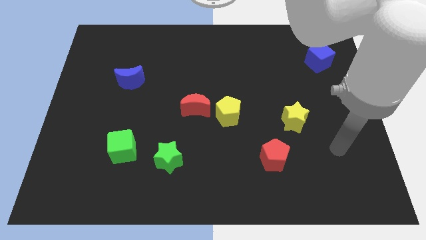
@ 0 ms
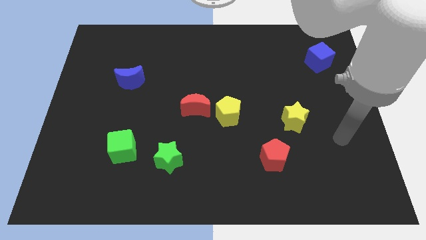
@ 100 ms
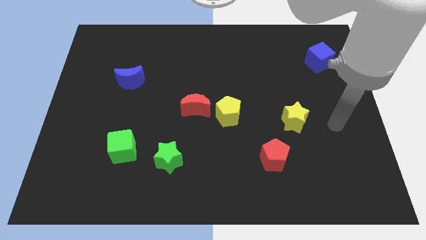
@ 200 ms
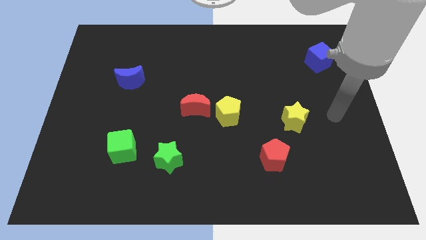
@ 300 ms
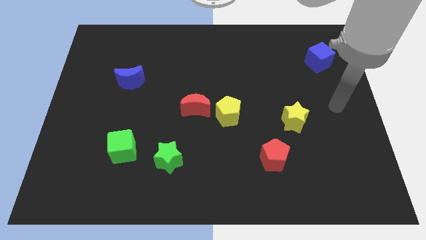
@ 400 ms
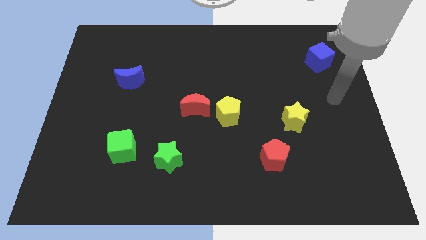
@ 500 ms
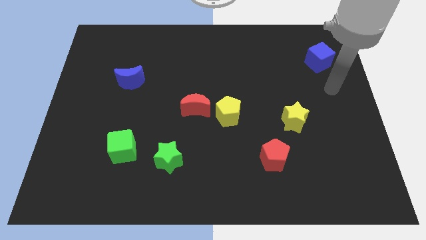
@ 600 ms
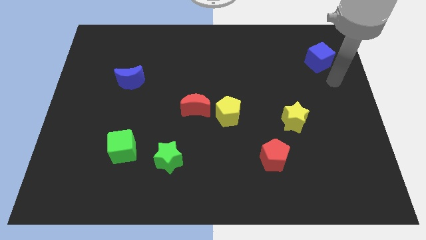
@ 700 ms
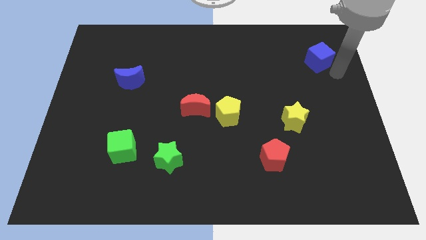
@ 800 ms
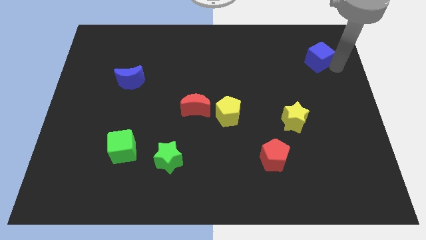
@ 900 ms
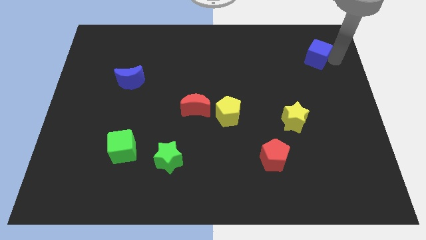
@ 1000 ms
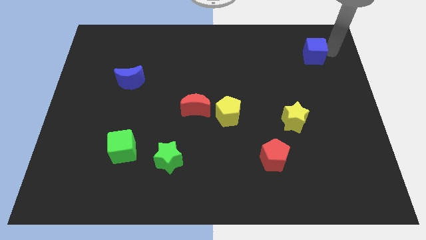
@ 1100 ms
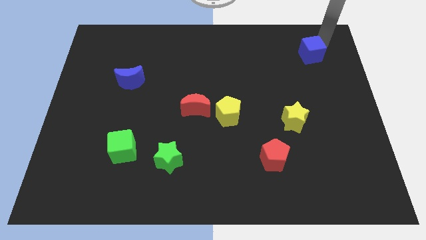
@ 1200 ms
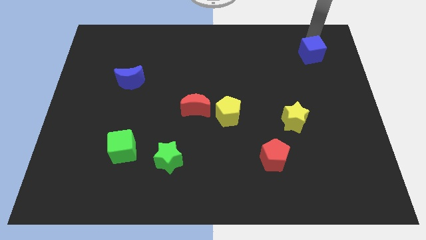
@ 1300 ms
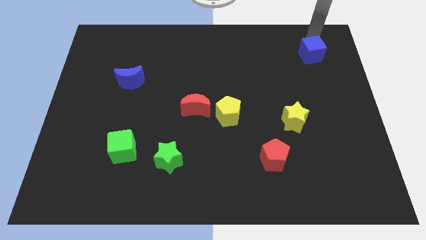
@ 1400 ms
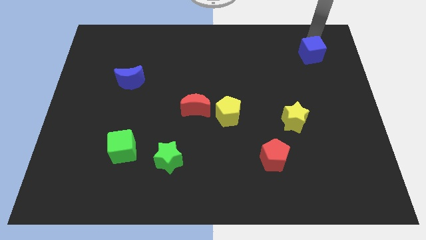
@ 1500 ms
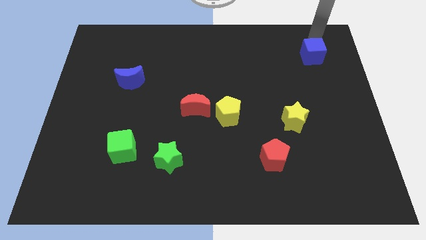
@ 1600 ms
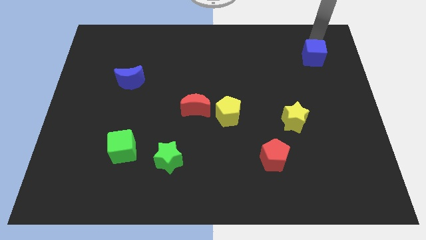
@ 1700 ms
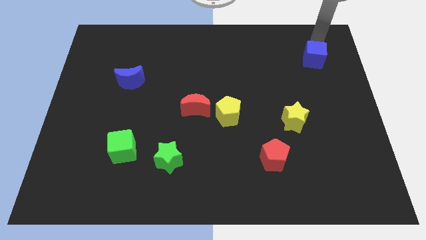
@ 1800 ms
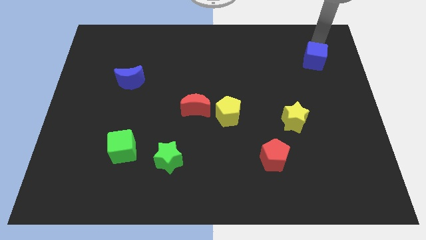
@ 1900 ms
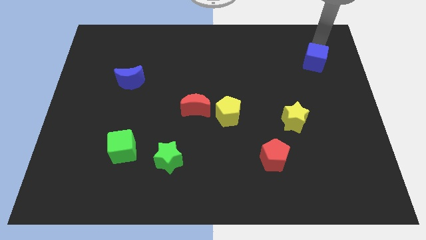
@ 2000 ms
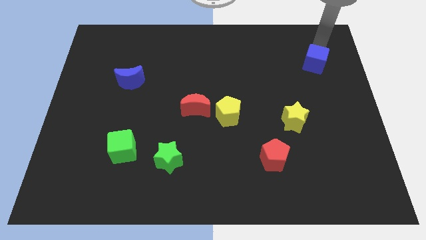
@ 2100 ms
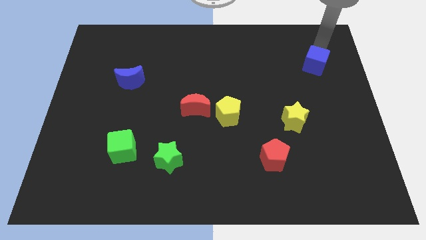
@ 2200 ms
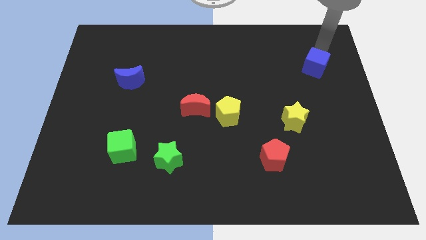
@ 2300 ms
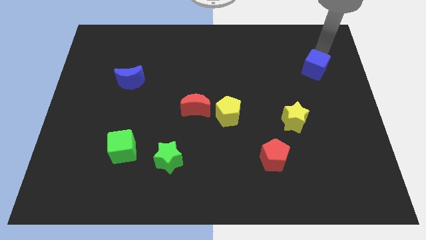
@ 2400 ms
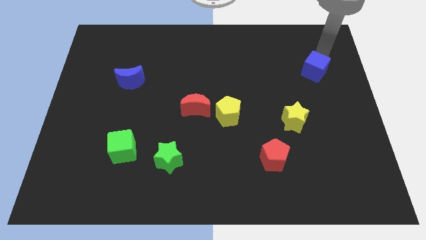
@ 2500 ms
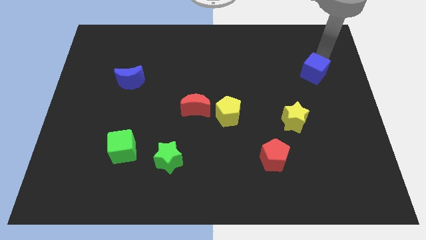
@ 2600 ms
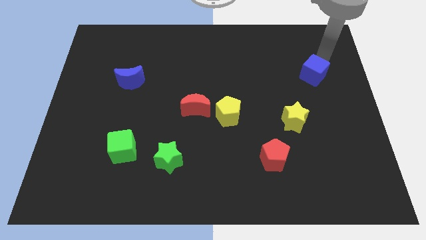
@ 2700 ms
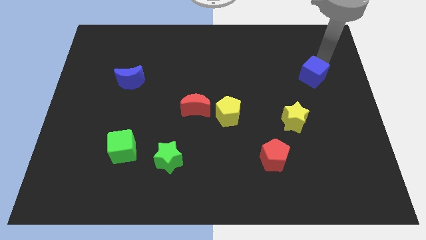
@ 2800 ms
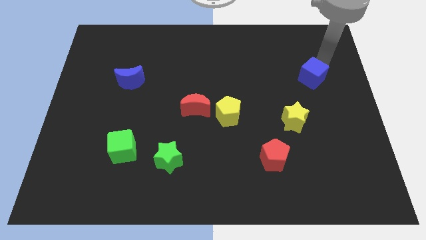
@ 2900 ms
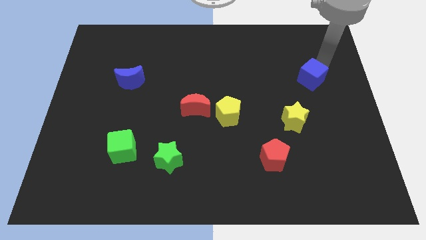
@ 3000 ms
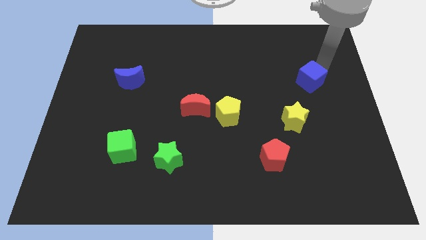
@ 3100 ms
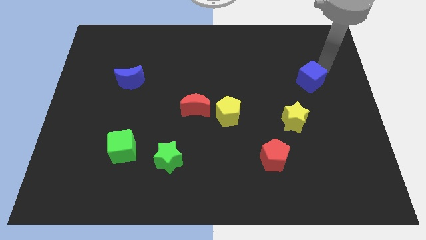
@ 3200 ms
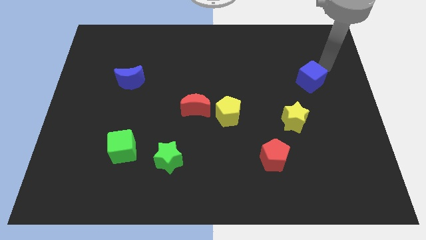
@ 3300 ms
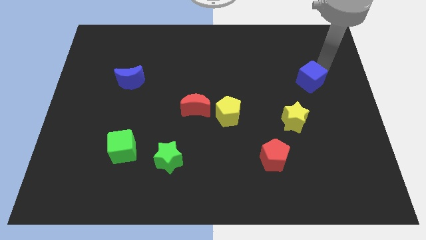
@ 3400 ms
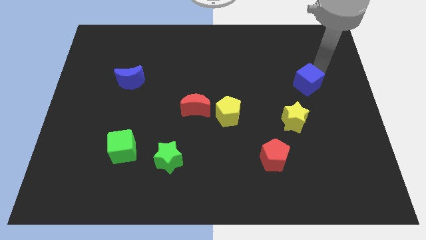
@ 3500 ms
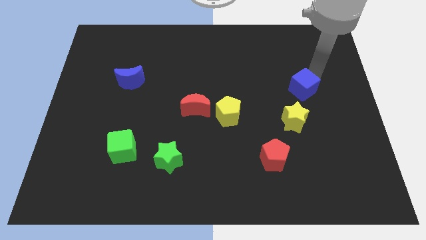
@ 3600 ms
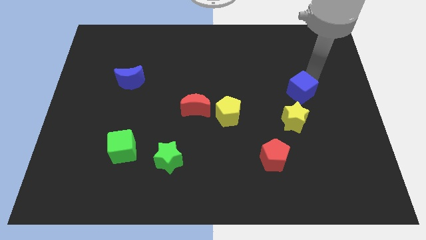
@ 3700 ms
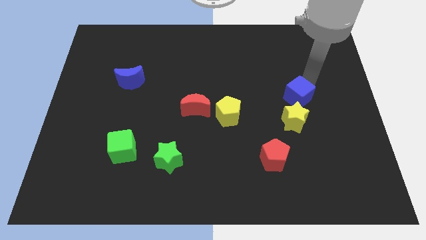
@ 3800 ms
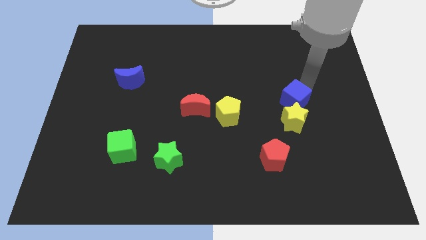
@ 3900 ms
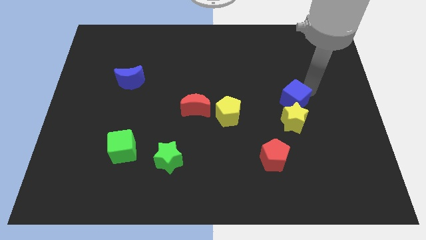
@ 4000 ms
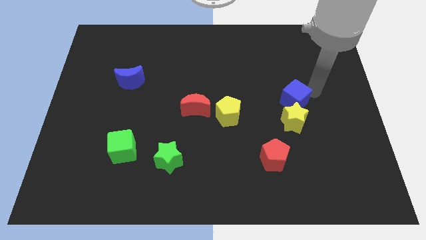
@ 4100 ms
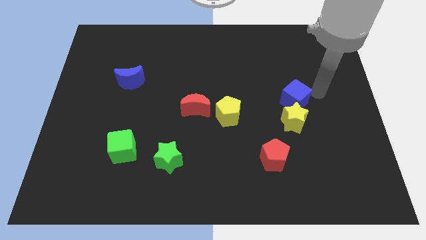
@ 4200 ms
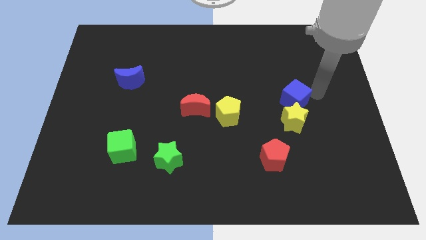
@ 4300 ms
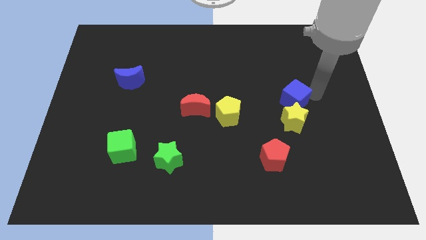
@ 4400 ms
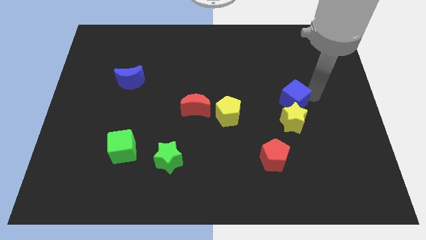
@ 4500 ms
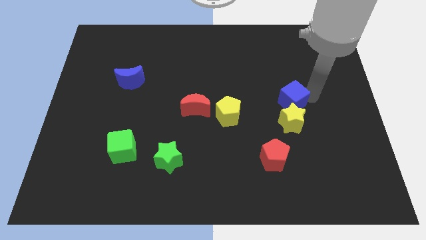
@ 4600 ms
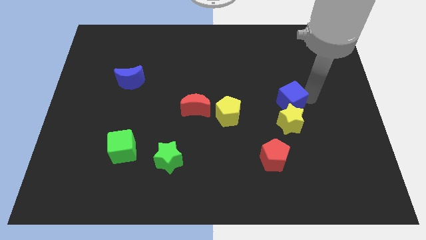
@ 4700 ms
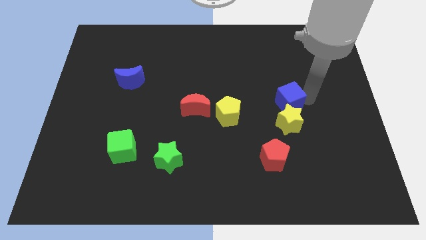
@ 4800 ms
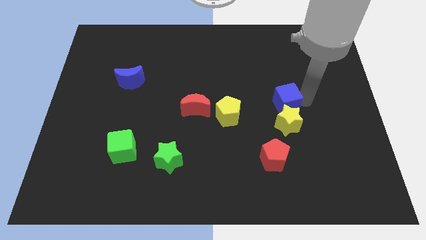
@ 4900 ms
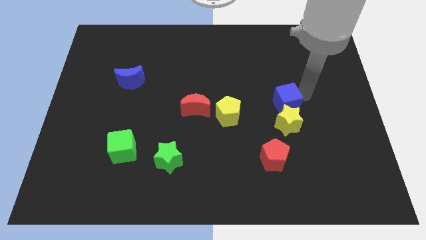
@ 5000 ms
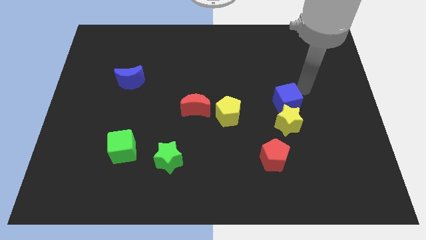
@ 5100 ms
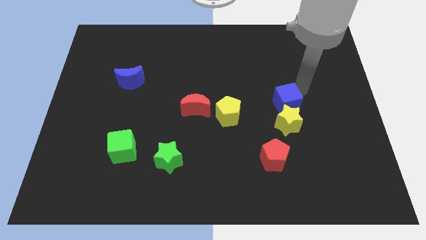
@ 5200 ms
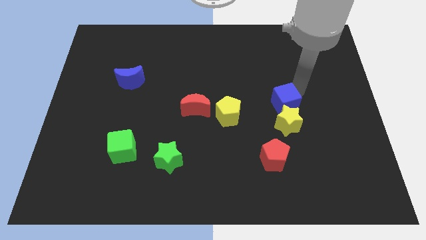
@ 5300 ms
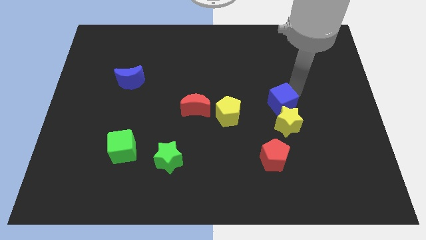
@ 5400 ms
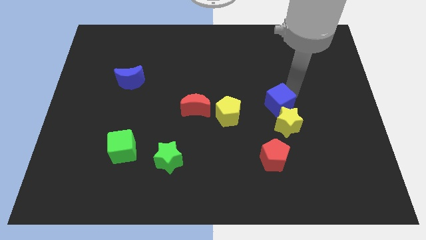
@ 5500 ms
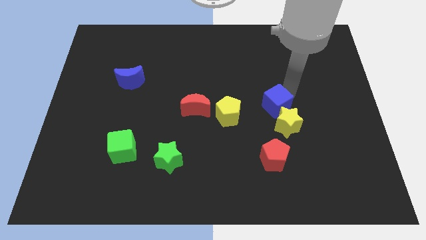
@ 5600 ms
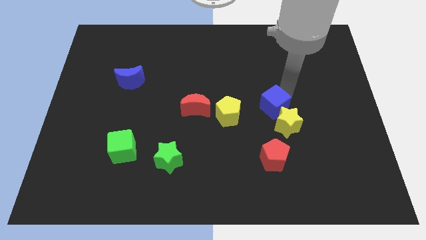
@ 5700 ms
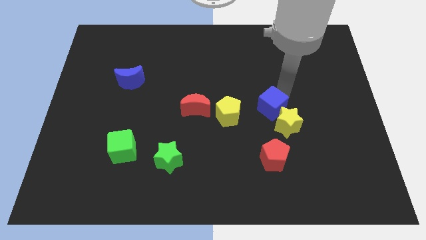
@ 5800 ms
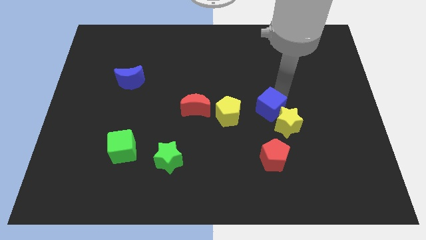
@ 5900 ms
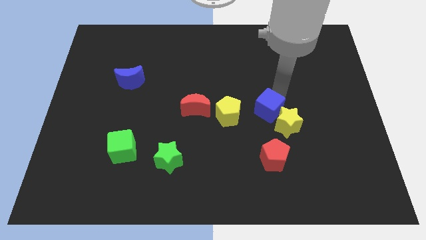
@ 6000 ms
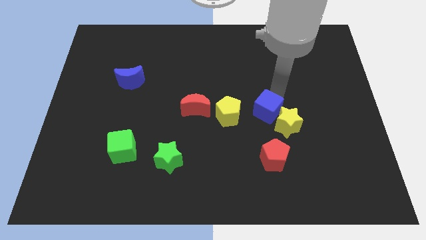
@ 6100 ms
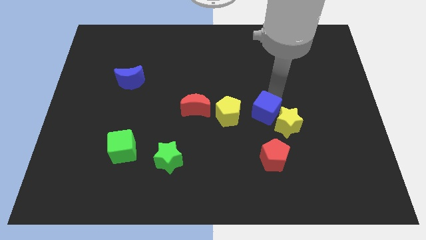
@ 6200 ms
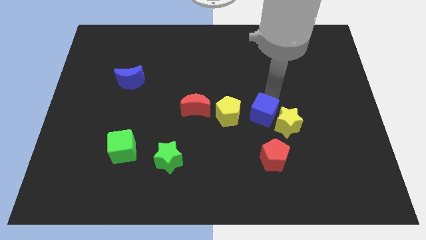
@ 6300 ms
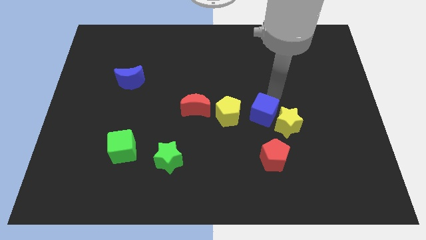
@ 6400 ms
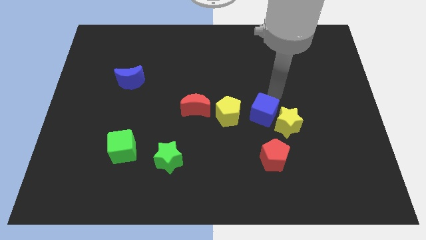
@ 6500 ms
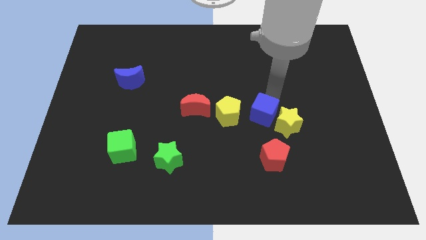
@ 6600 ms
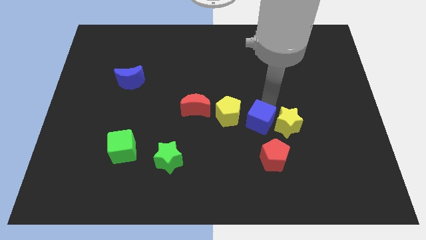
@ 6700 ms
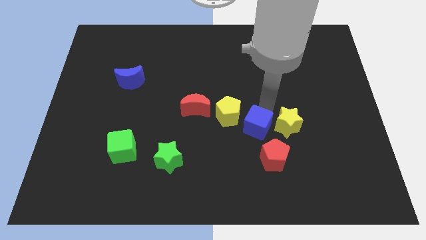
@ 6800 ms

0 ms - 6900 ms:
push the blue cube diagonally up and to the left of the red pentagon

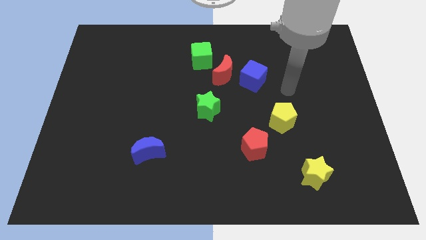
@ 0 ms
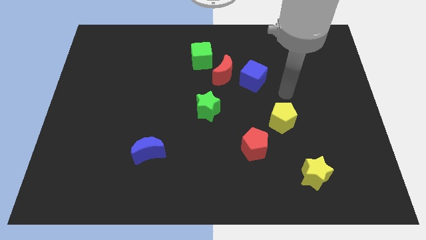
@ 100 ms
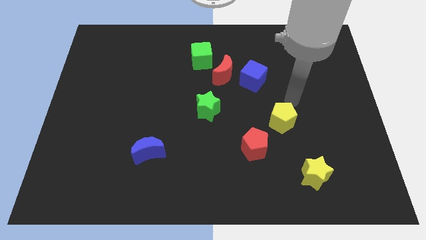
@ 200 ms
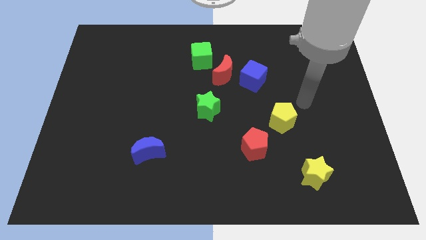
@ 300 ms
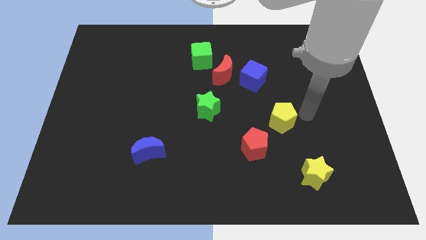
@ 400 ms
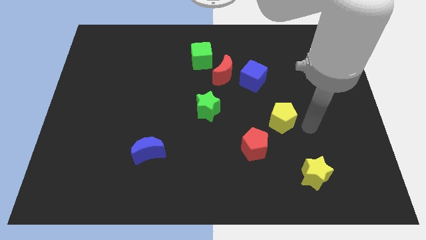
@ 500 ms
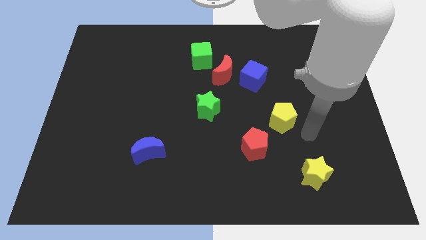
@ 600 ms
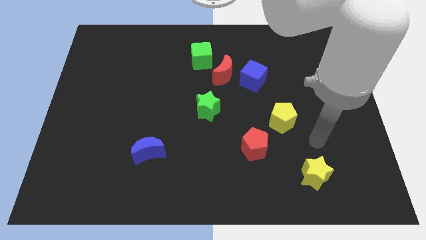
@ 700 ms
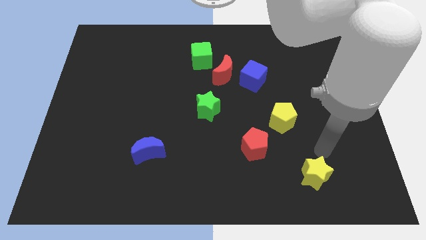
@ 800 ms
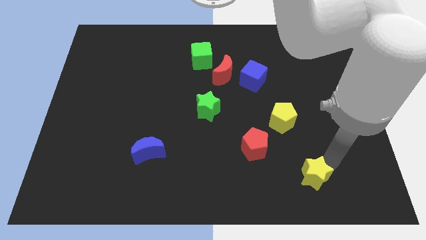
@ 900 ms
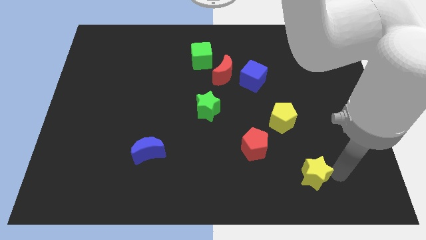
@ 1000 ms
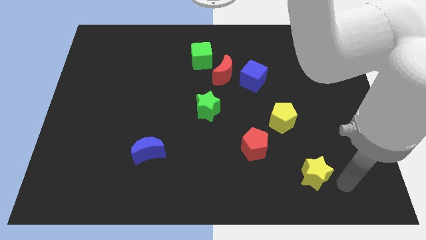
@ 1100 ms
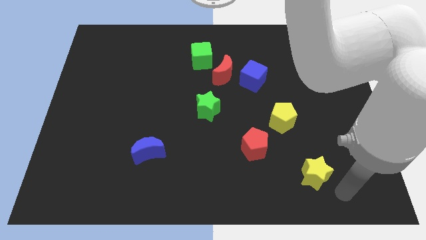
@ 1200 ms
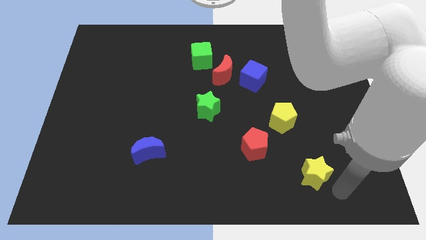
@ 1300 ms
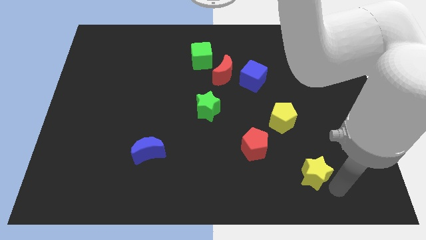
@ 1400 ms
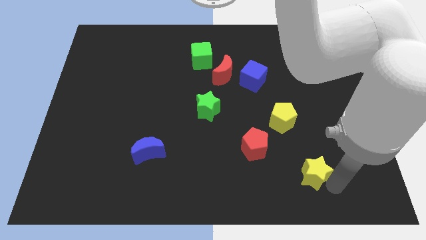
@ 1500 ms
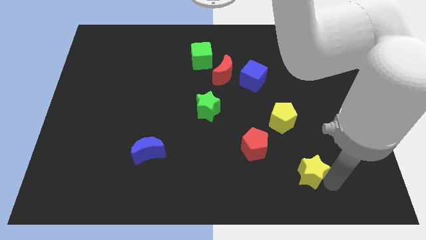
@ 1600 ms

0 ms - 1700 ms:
put the yellow star to the bottom side of the yellow pentagon
